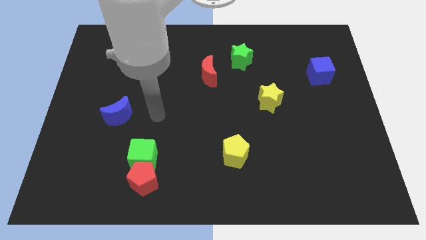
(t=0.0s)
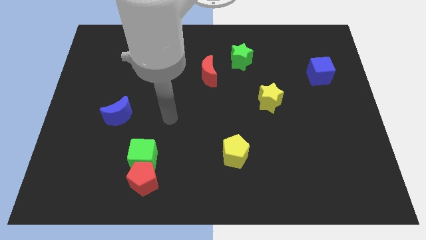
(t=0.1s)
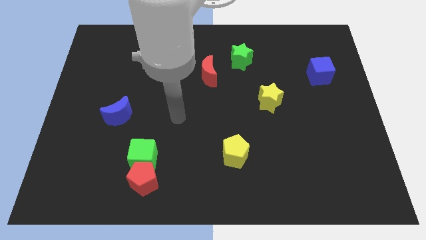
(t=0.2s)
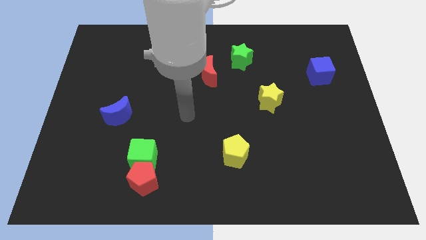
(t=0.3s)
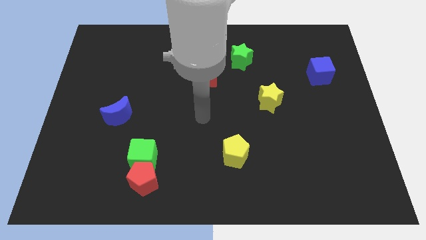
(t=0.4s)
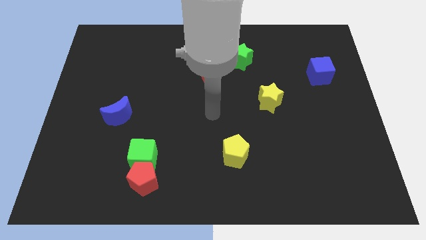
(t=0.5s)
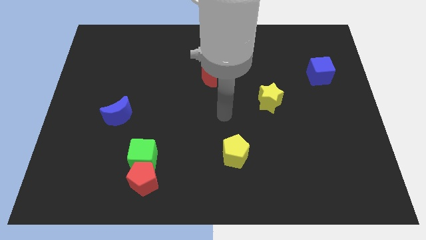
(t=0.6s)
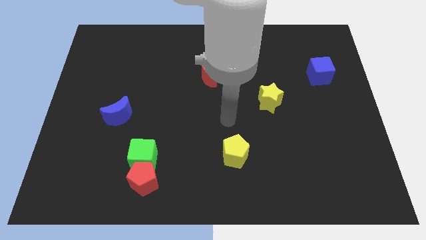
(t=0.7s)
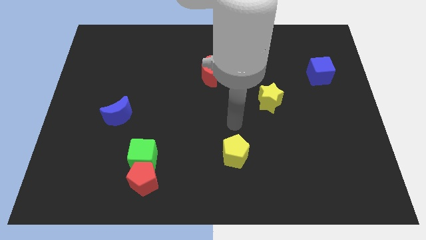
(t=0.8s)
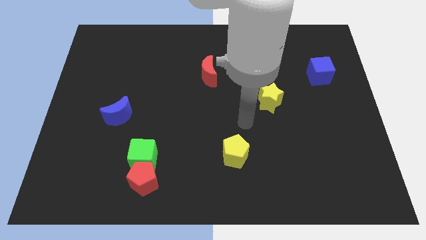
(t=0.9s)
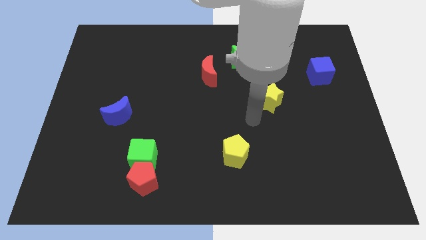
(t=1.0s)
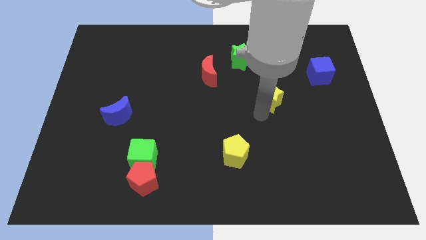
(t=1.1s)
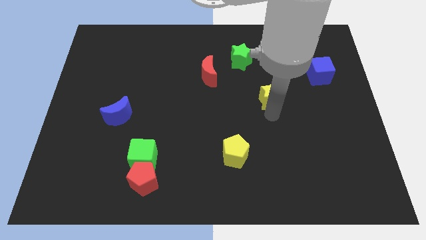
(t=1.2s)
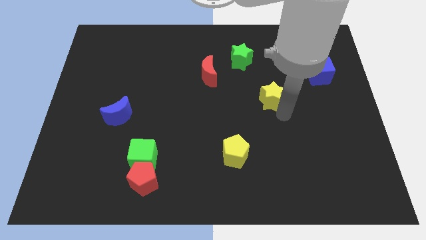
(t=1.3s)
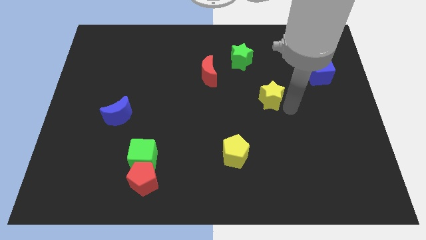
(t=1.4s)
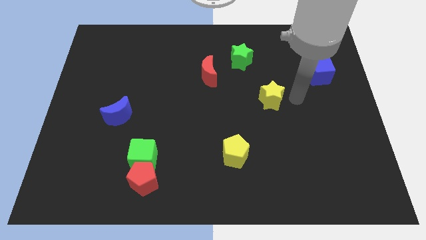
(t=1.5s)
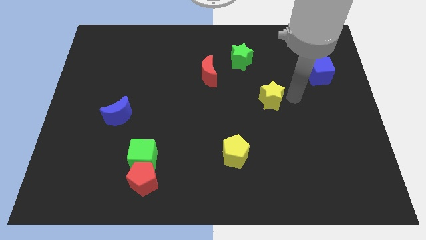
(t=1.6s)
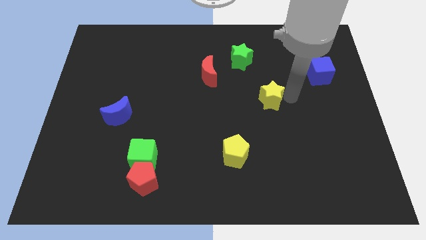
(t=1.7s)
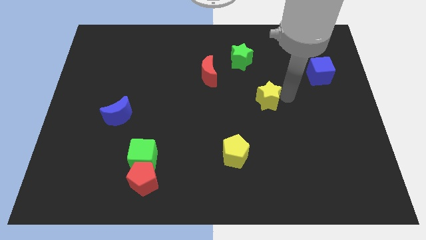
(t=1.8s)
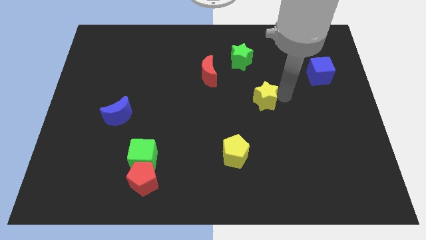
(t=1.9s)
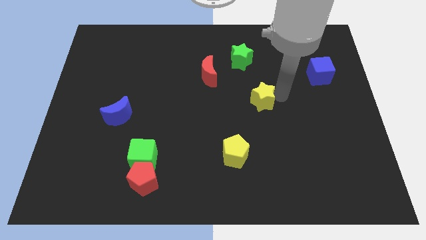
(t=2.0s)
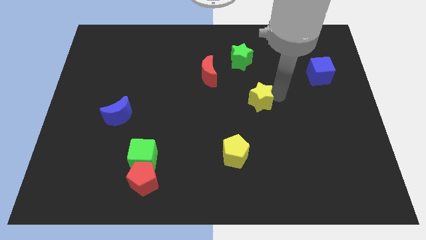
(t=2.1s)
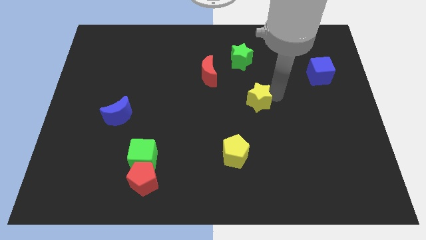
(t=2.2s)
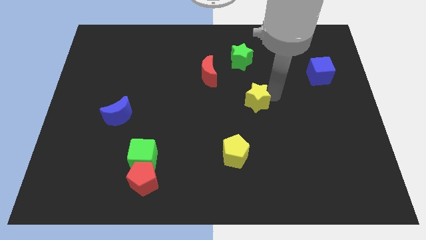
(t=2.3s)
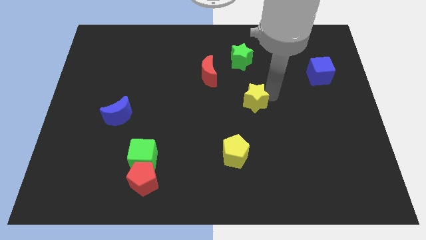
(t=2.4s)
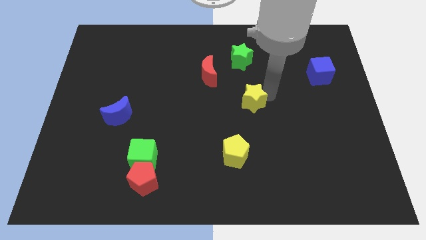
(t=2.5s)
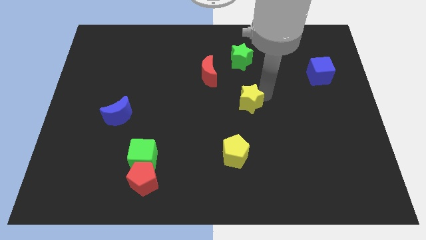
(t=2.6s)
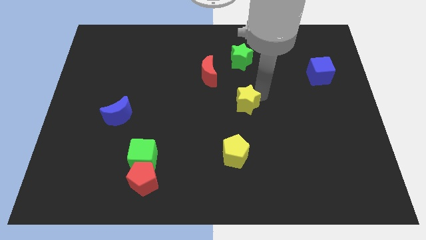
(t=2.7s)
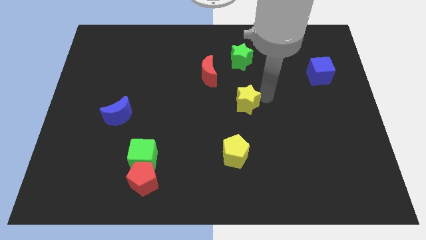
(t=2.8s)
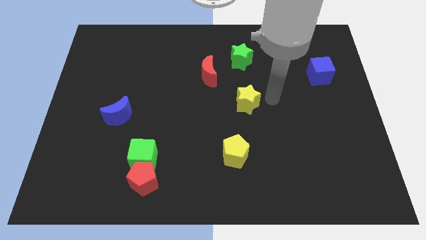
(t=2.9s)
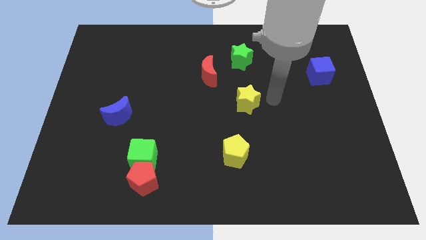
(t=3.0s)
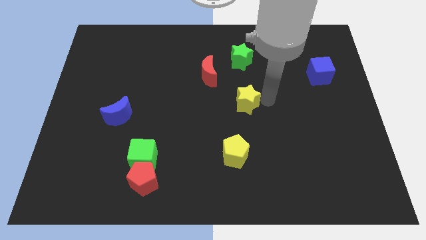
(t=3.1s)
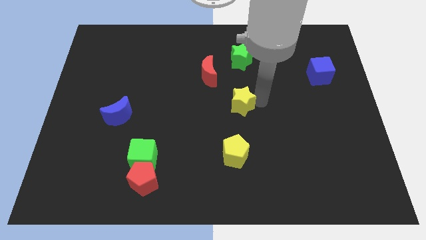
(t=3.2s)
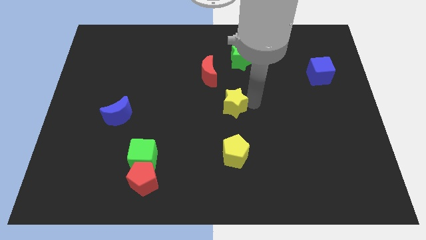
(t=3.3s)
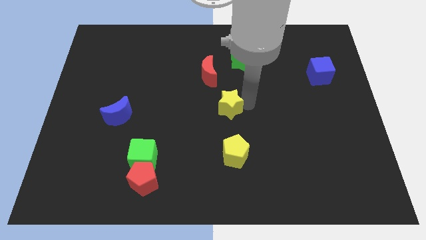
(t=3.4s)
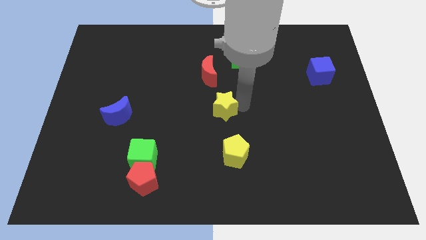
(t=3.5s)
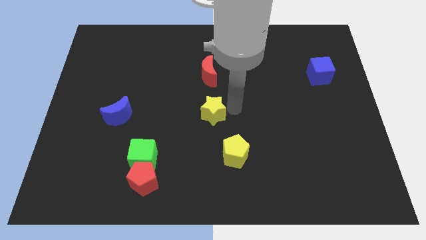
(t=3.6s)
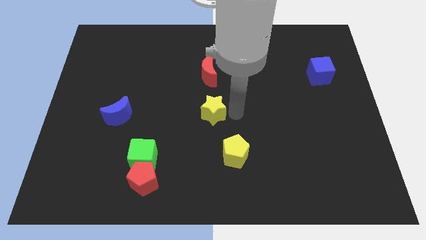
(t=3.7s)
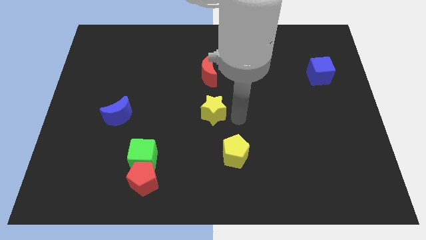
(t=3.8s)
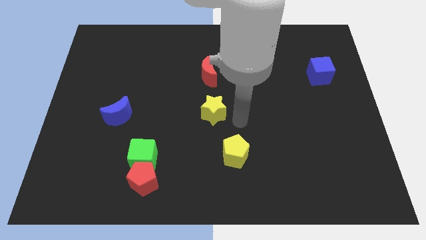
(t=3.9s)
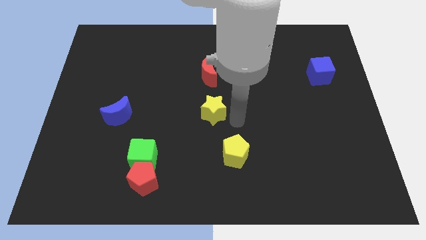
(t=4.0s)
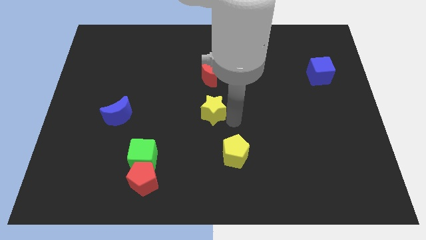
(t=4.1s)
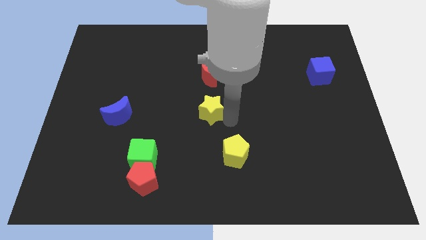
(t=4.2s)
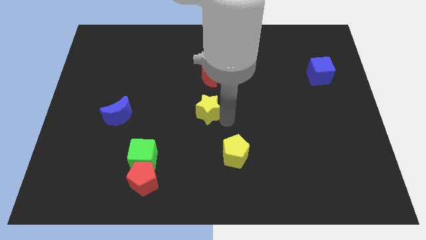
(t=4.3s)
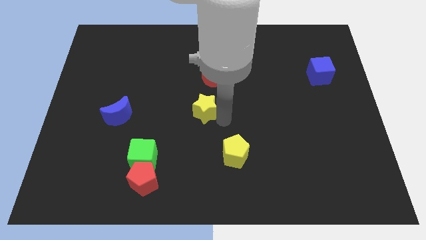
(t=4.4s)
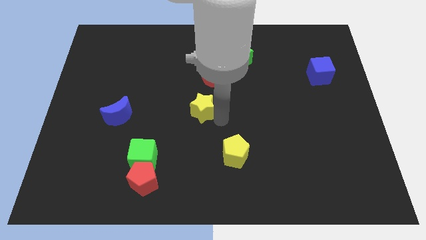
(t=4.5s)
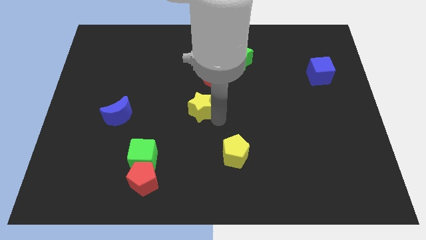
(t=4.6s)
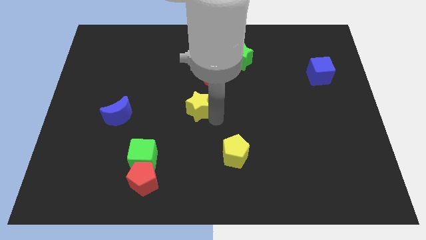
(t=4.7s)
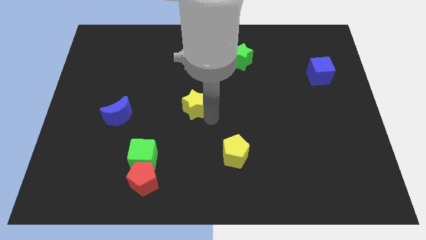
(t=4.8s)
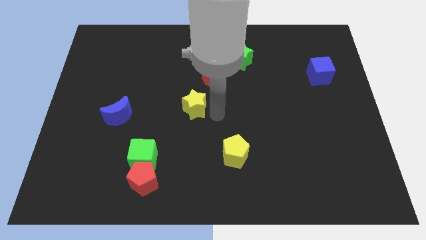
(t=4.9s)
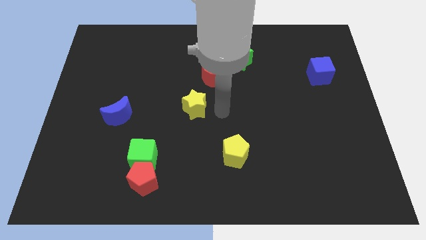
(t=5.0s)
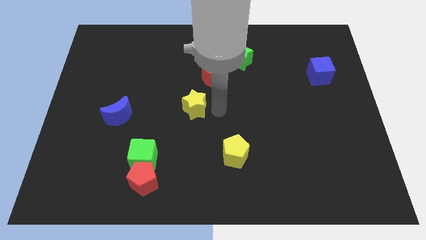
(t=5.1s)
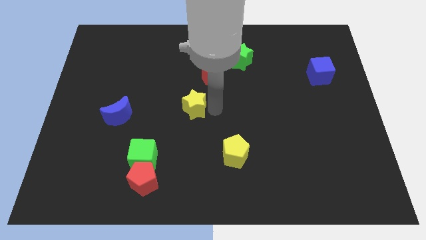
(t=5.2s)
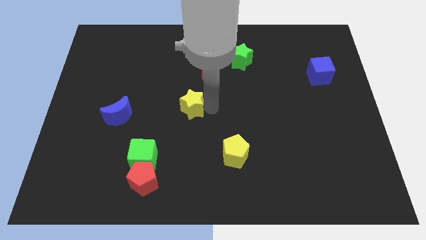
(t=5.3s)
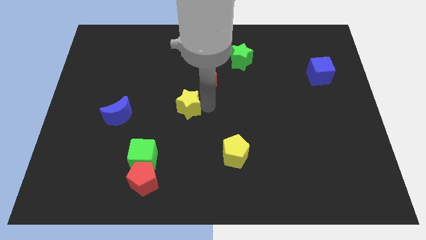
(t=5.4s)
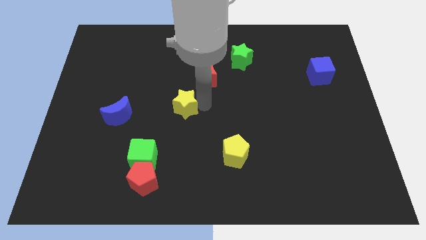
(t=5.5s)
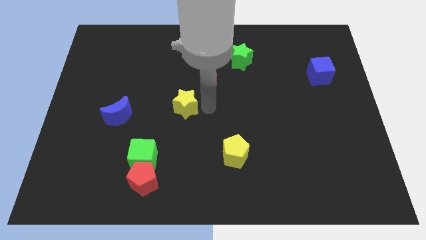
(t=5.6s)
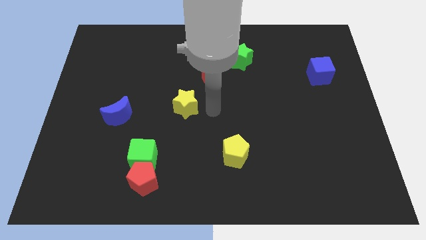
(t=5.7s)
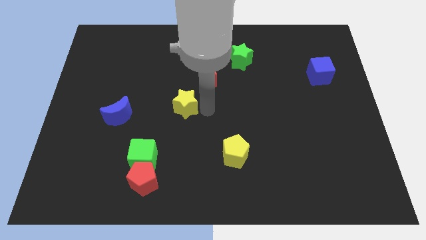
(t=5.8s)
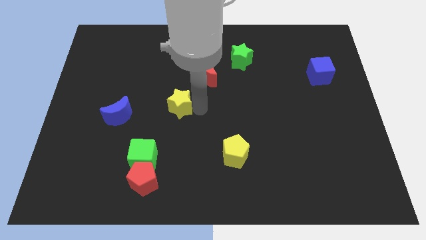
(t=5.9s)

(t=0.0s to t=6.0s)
move the yellow star left

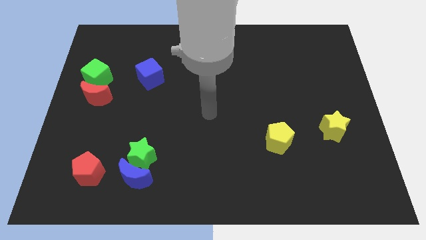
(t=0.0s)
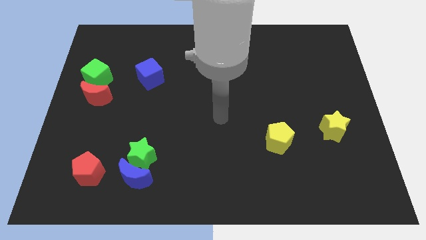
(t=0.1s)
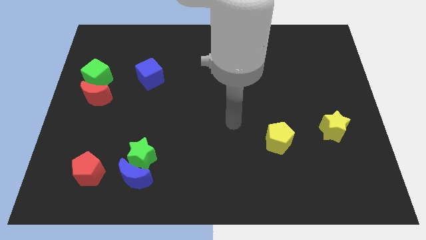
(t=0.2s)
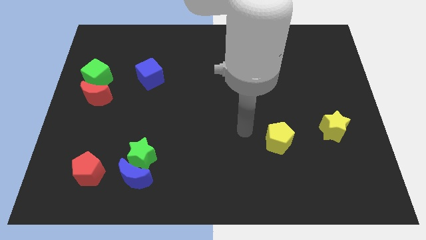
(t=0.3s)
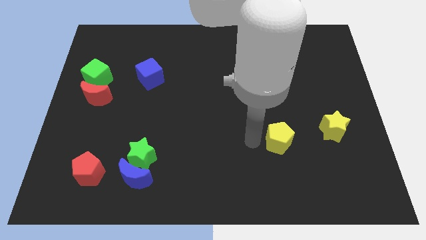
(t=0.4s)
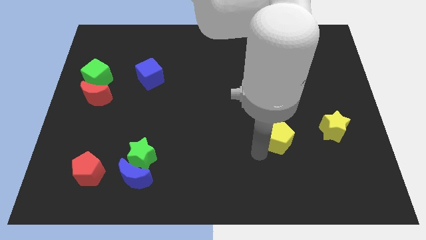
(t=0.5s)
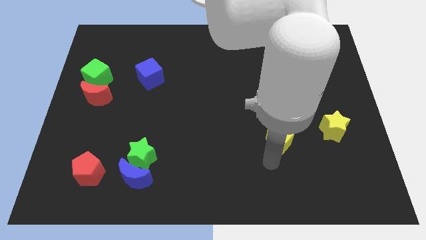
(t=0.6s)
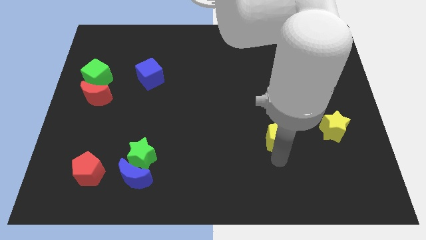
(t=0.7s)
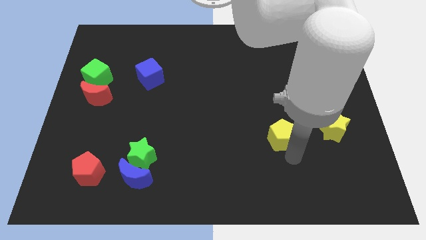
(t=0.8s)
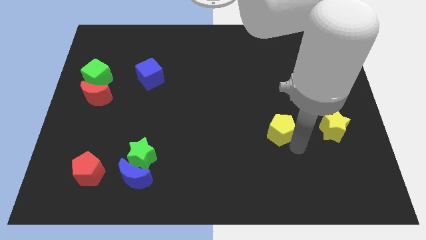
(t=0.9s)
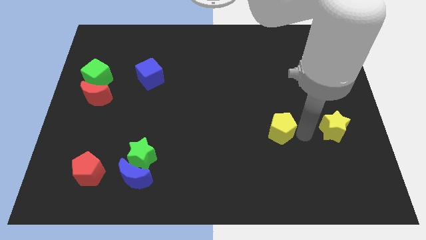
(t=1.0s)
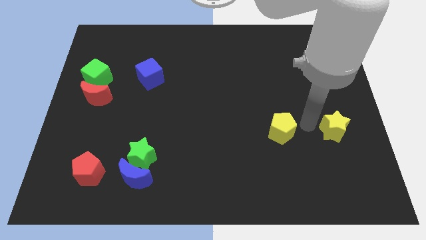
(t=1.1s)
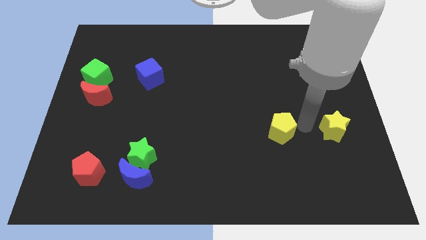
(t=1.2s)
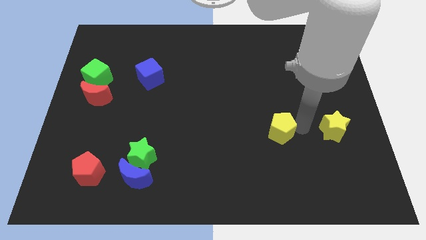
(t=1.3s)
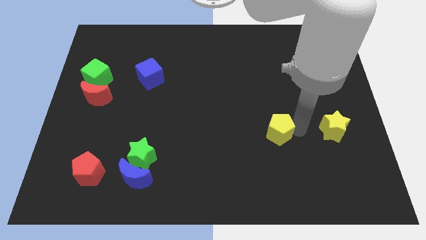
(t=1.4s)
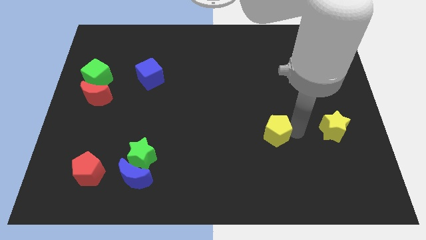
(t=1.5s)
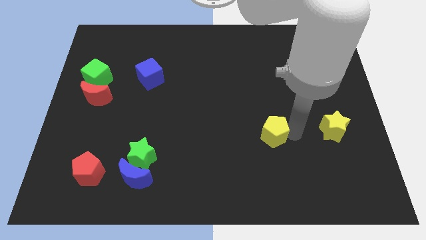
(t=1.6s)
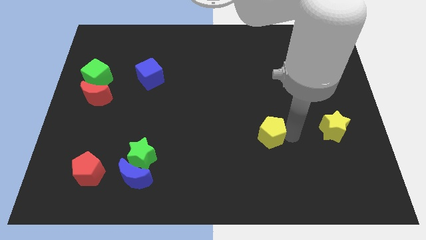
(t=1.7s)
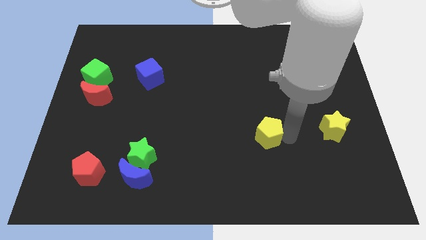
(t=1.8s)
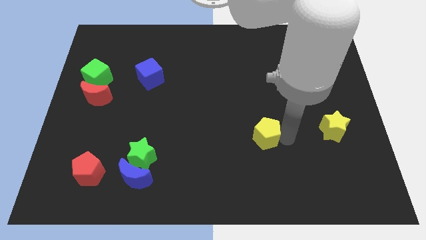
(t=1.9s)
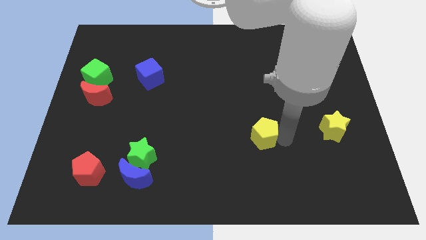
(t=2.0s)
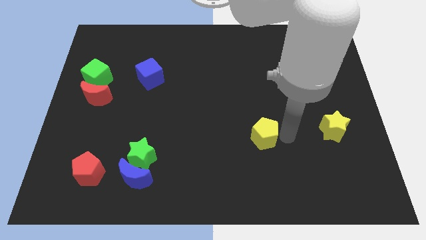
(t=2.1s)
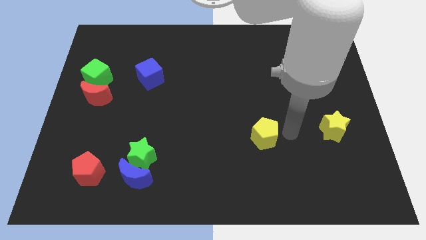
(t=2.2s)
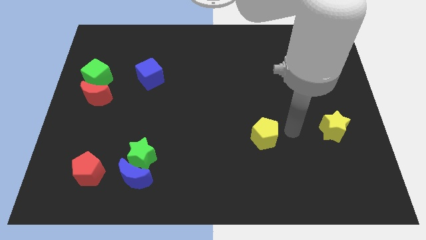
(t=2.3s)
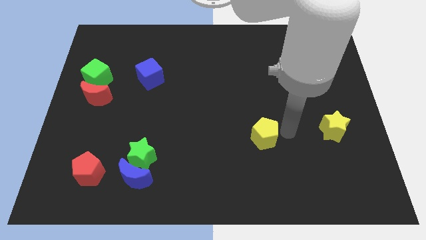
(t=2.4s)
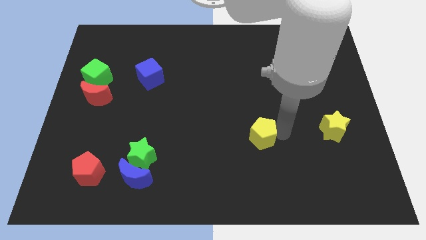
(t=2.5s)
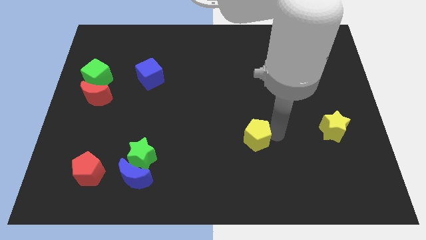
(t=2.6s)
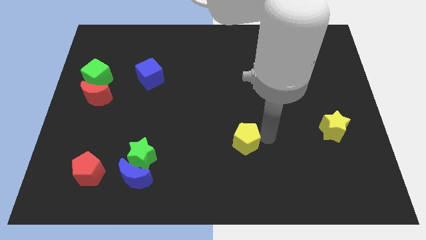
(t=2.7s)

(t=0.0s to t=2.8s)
move the yellow pentagon left a little
